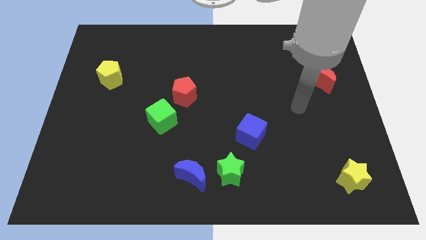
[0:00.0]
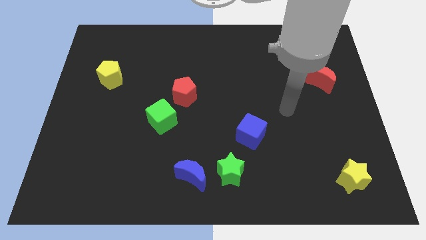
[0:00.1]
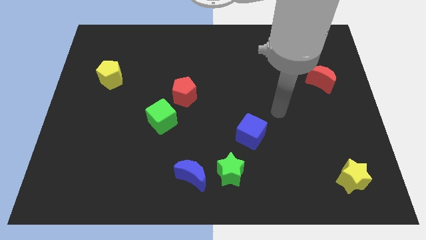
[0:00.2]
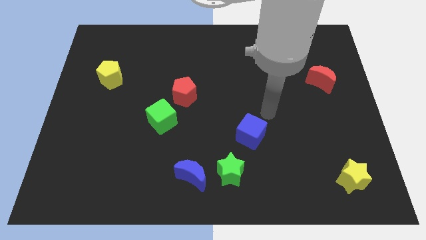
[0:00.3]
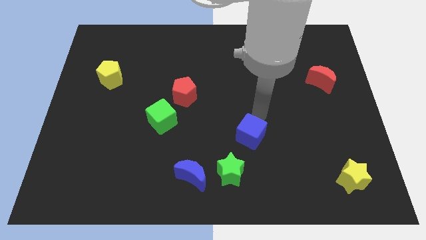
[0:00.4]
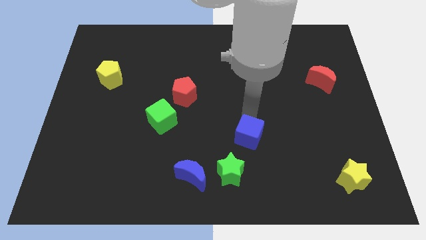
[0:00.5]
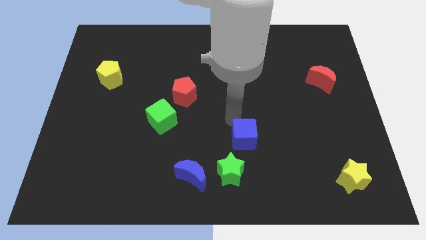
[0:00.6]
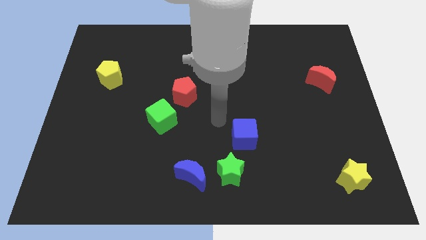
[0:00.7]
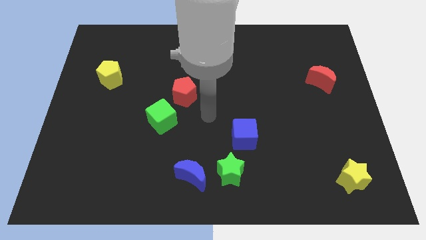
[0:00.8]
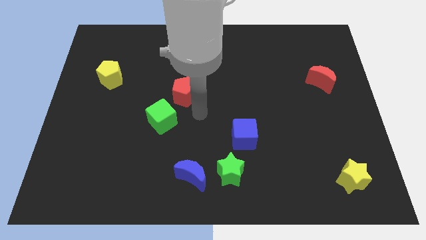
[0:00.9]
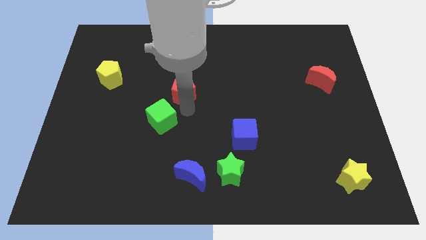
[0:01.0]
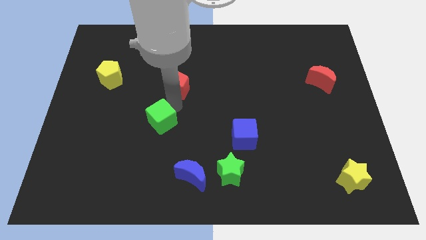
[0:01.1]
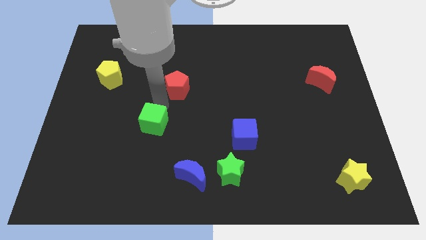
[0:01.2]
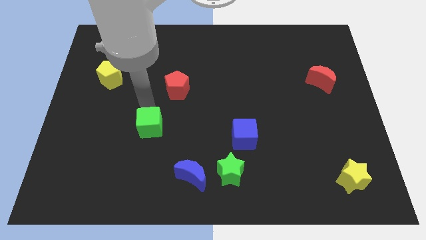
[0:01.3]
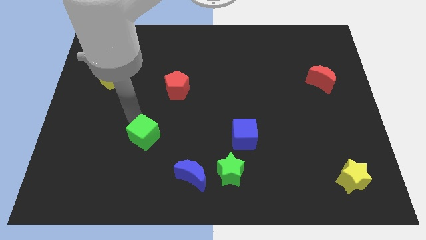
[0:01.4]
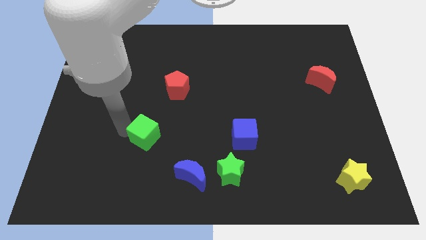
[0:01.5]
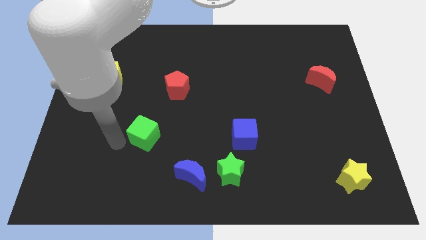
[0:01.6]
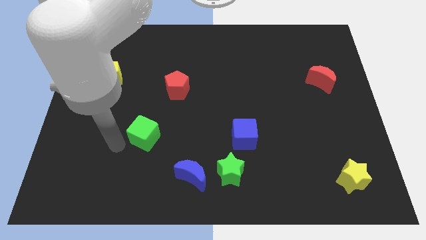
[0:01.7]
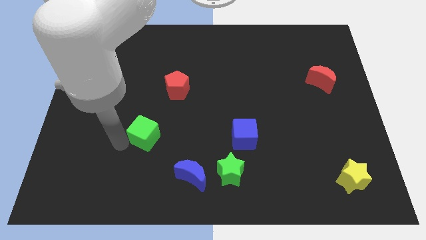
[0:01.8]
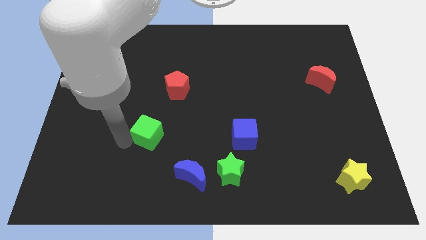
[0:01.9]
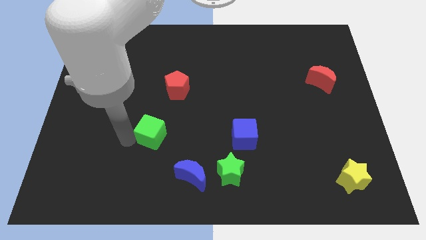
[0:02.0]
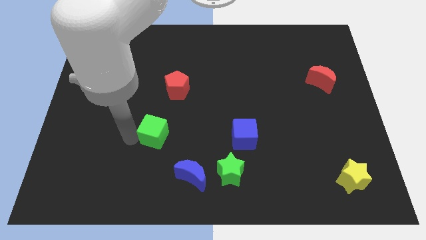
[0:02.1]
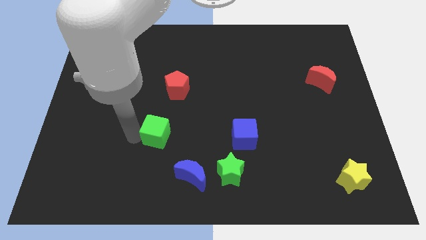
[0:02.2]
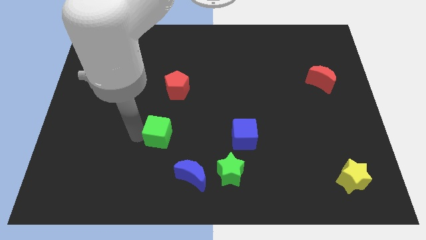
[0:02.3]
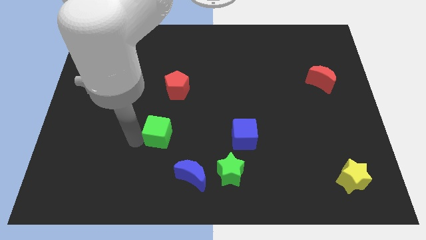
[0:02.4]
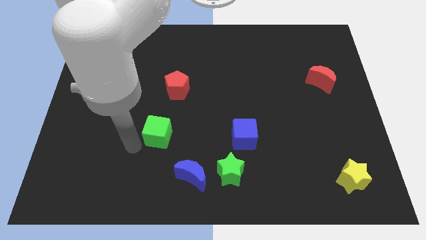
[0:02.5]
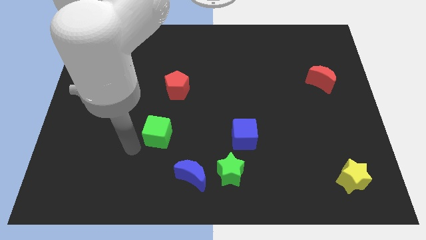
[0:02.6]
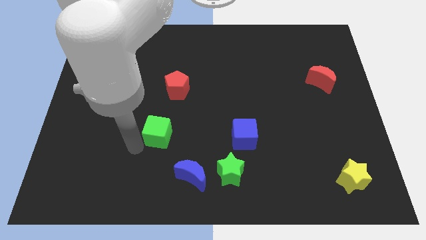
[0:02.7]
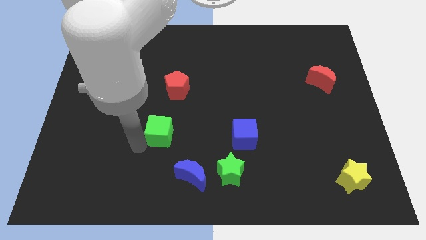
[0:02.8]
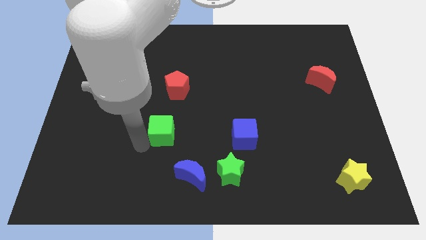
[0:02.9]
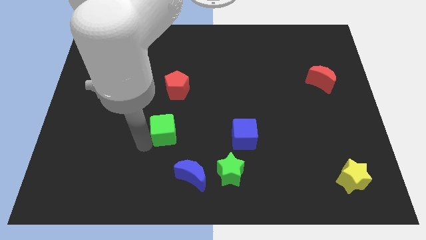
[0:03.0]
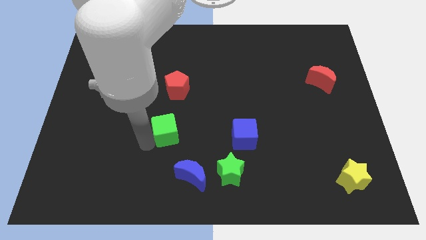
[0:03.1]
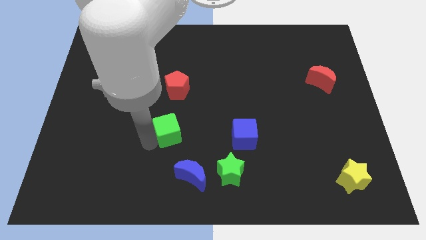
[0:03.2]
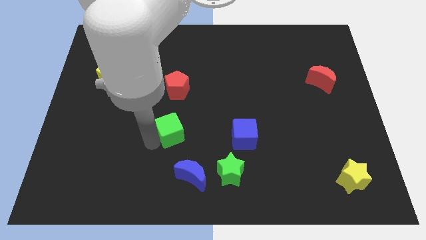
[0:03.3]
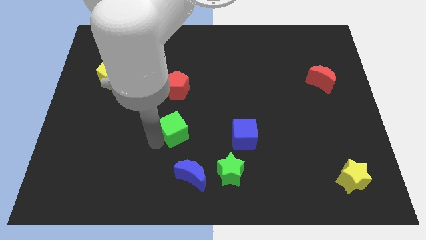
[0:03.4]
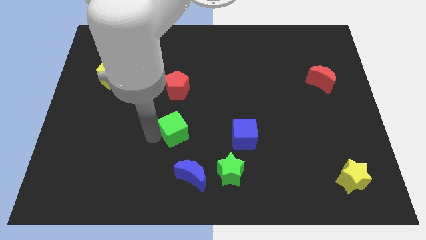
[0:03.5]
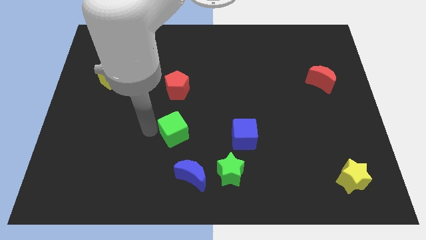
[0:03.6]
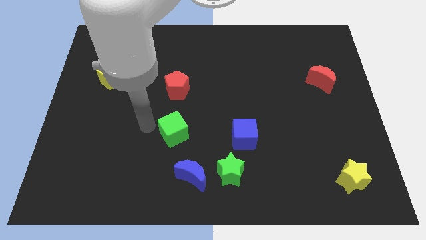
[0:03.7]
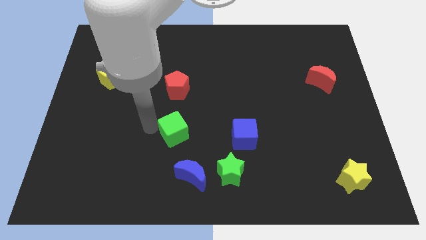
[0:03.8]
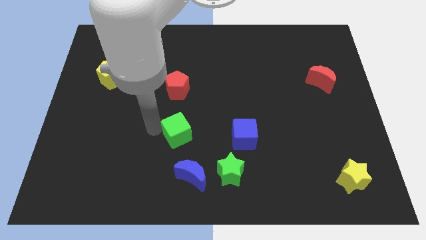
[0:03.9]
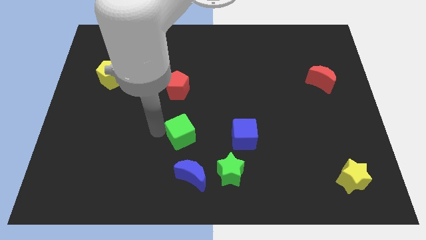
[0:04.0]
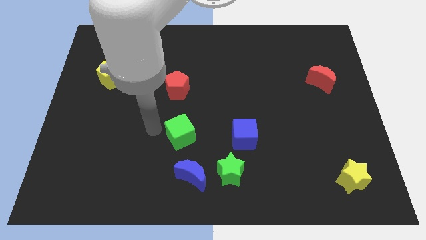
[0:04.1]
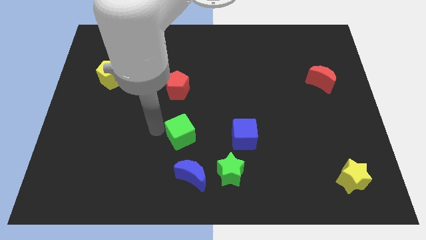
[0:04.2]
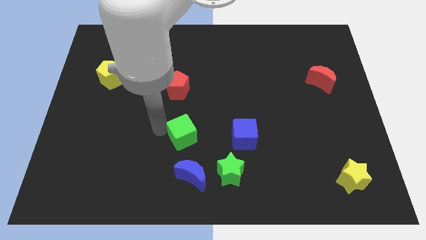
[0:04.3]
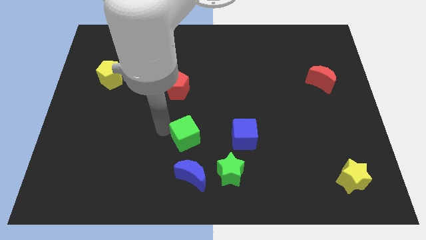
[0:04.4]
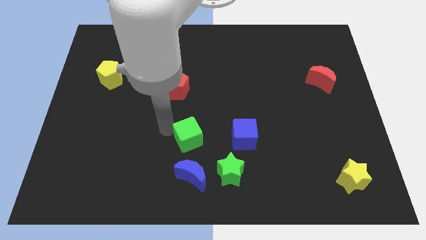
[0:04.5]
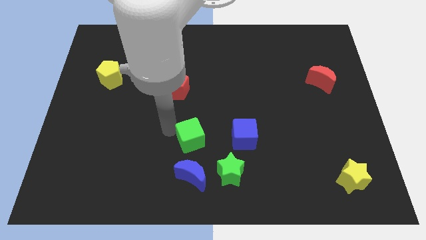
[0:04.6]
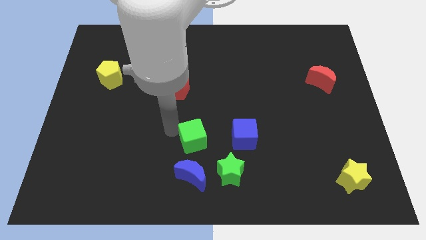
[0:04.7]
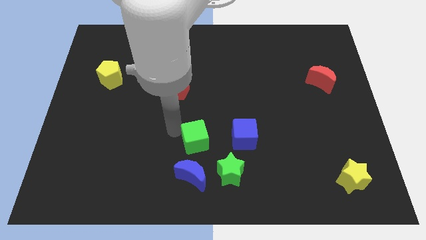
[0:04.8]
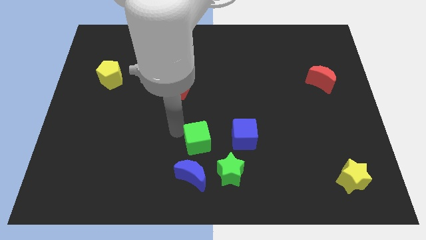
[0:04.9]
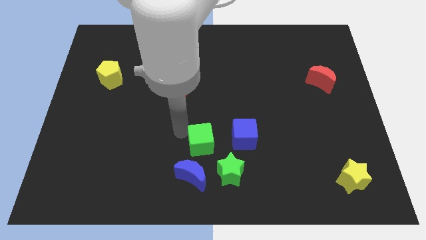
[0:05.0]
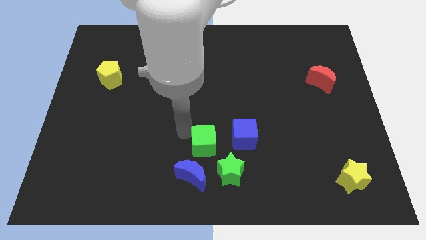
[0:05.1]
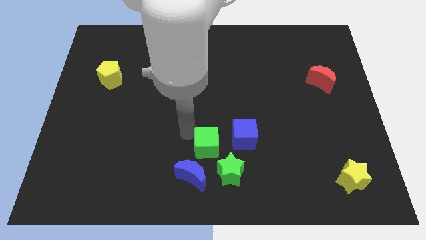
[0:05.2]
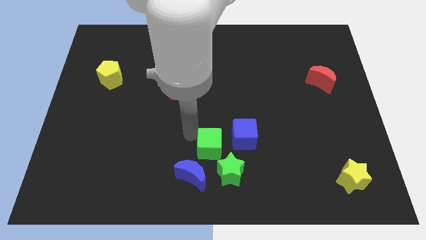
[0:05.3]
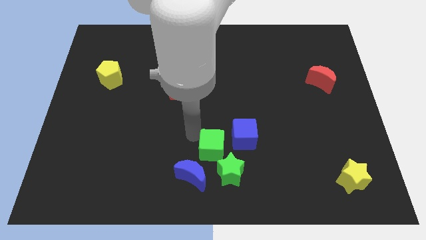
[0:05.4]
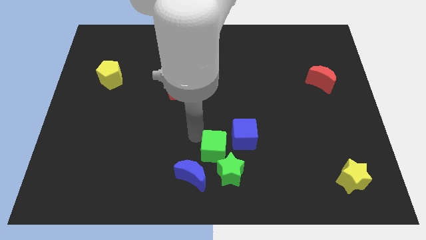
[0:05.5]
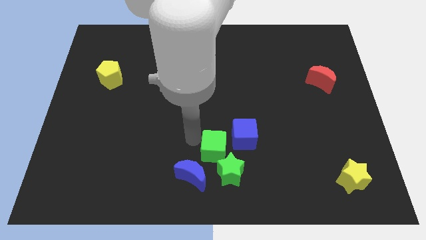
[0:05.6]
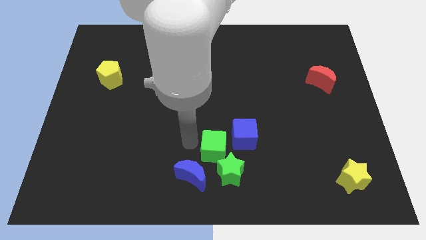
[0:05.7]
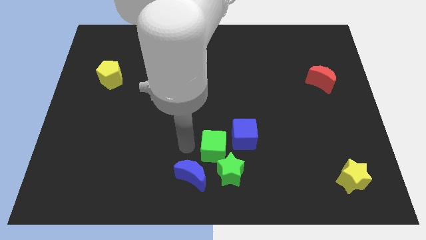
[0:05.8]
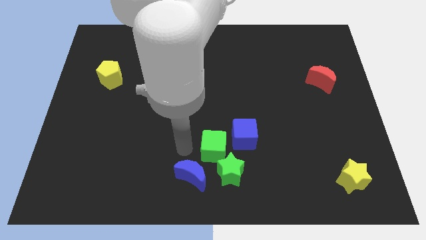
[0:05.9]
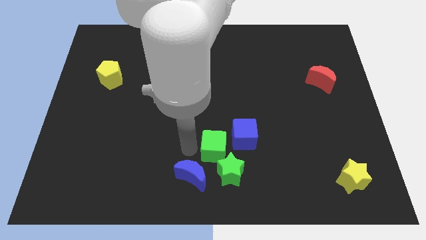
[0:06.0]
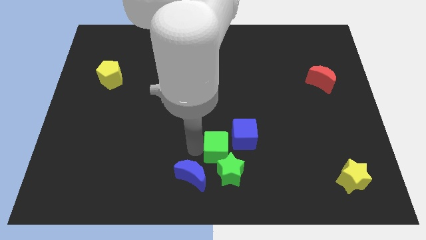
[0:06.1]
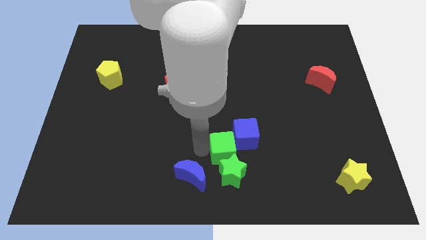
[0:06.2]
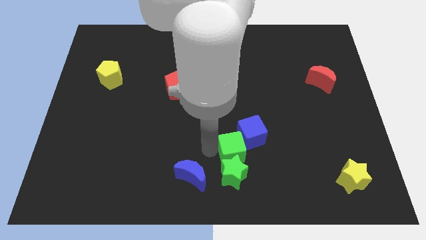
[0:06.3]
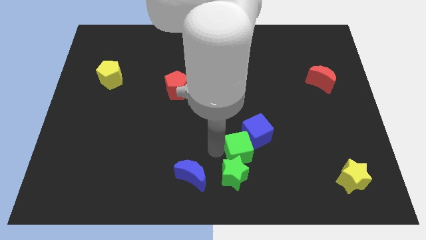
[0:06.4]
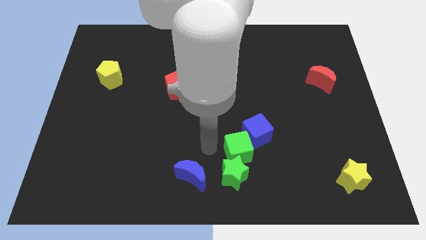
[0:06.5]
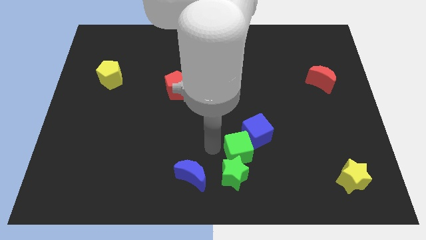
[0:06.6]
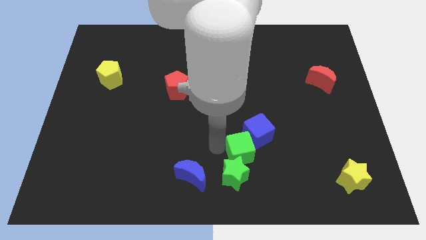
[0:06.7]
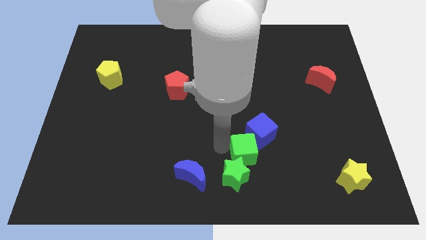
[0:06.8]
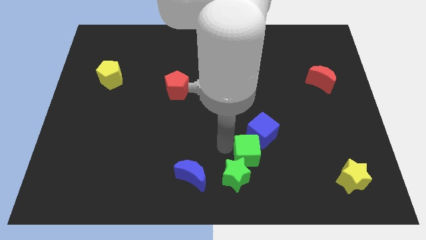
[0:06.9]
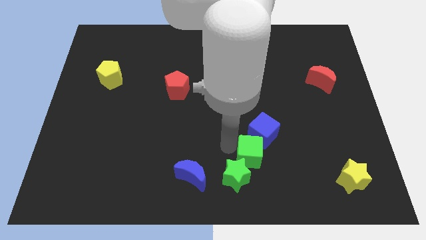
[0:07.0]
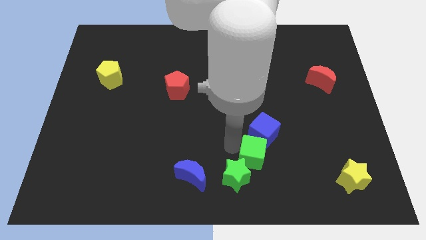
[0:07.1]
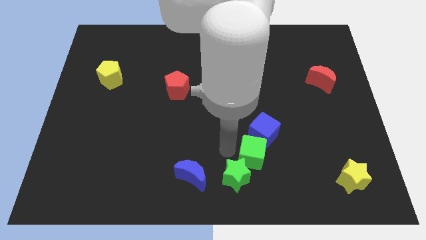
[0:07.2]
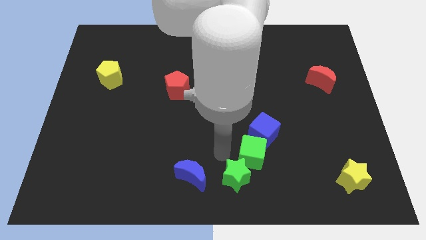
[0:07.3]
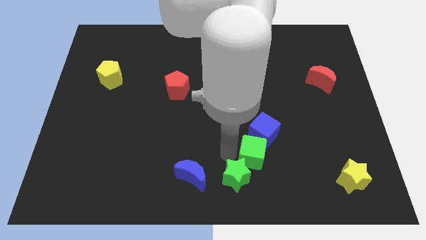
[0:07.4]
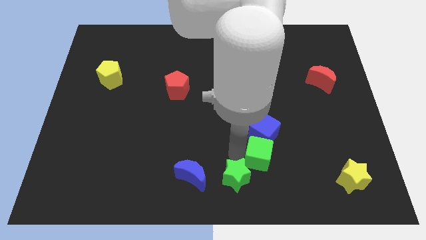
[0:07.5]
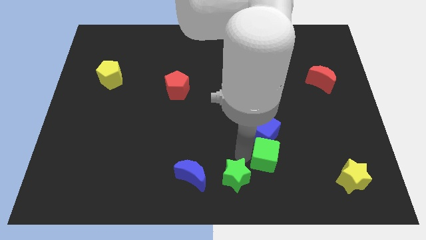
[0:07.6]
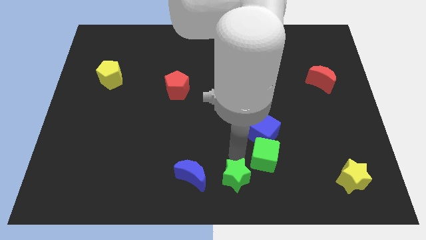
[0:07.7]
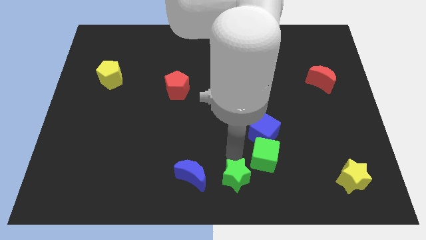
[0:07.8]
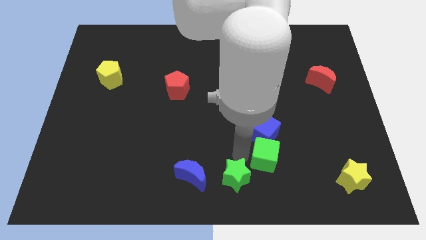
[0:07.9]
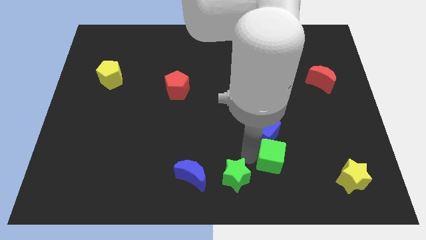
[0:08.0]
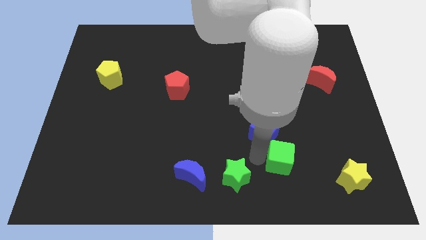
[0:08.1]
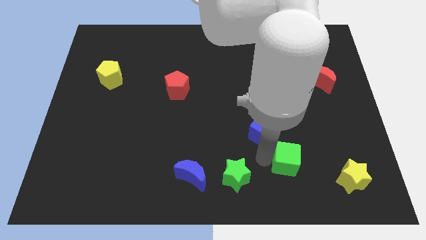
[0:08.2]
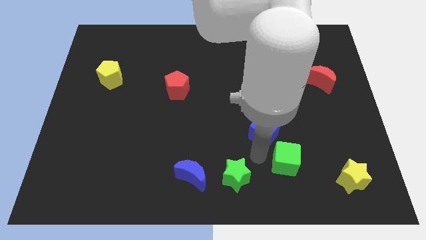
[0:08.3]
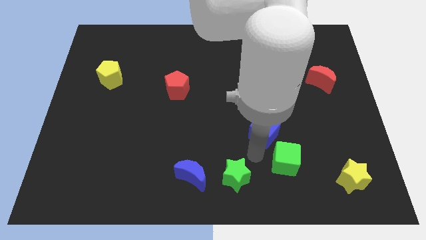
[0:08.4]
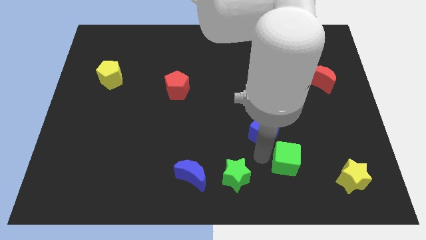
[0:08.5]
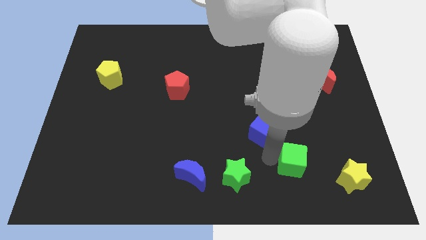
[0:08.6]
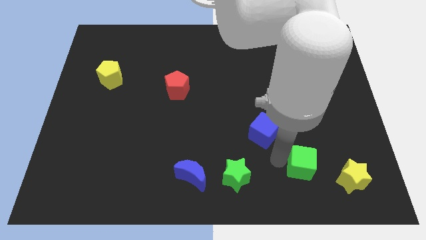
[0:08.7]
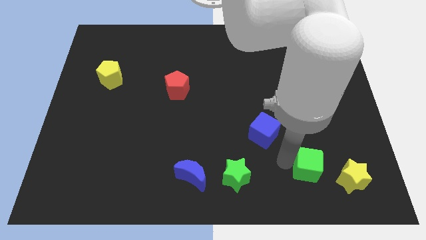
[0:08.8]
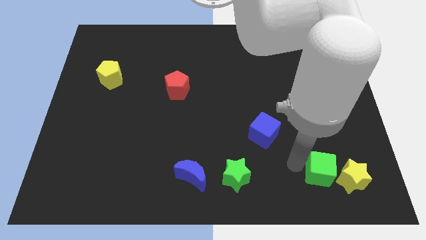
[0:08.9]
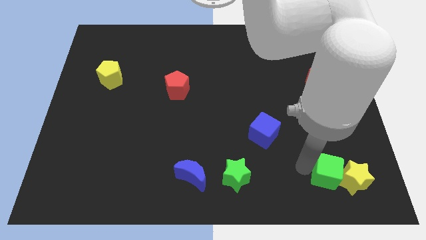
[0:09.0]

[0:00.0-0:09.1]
slide the green cube close to the yellow star
